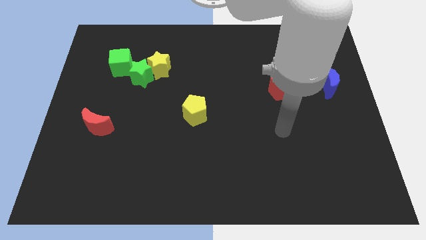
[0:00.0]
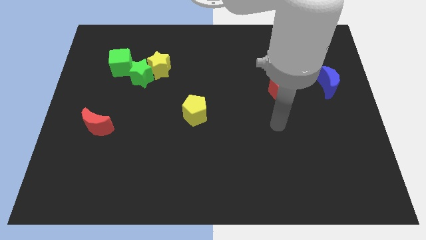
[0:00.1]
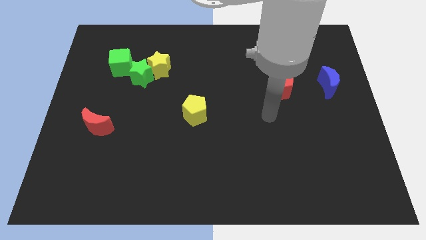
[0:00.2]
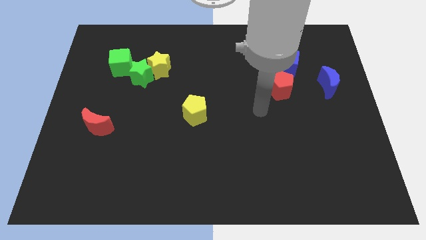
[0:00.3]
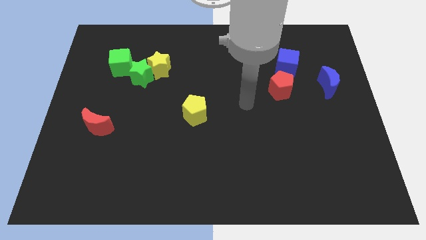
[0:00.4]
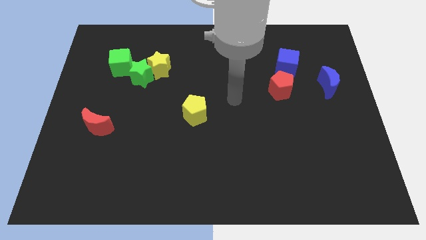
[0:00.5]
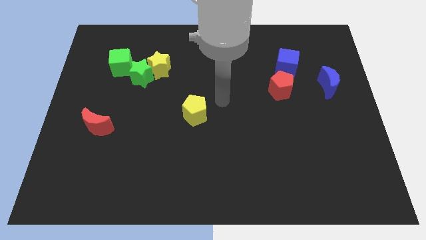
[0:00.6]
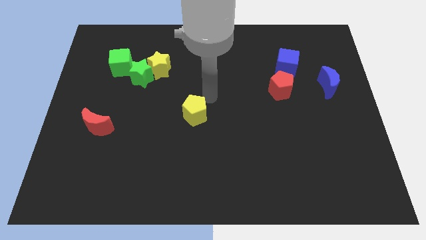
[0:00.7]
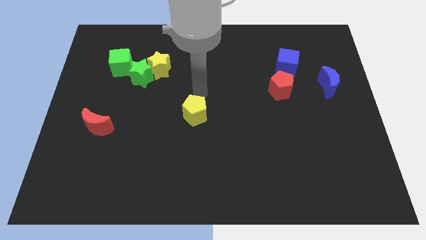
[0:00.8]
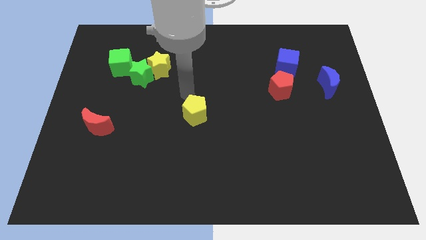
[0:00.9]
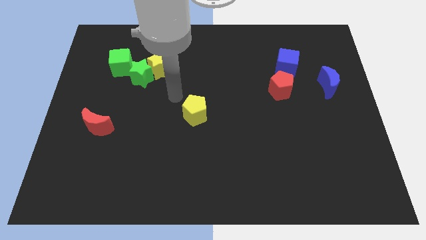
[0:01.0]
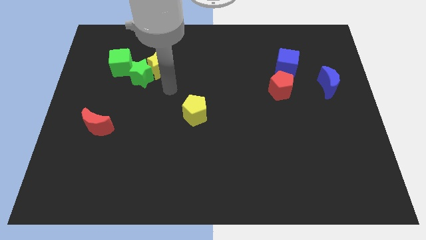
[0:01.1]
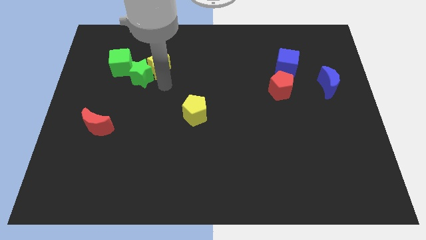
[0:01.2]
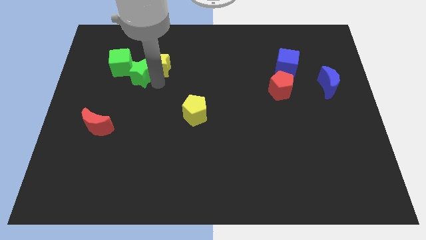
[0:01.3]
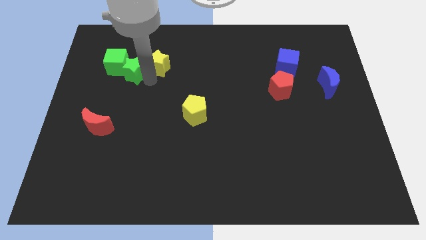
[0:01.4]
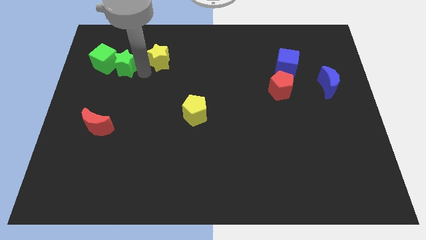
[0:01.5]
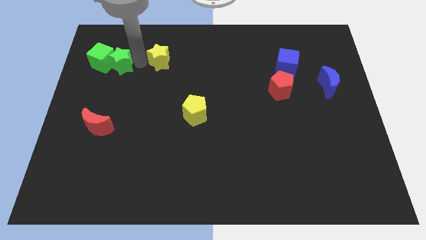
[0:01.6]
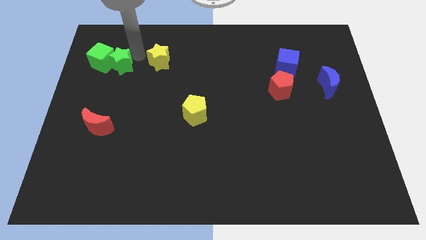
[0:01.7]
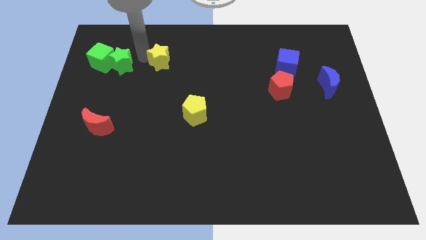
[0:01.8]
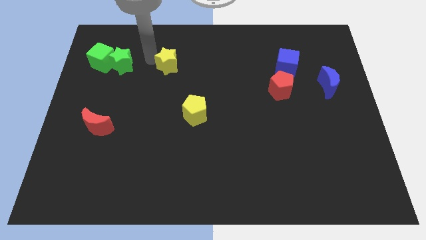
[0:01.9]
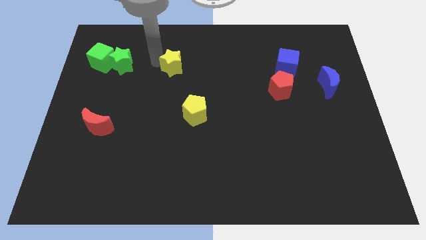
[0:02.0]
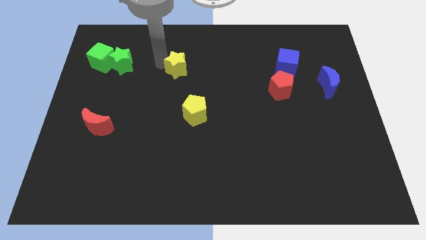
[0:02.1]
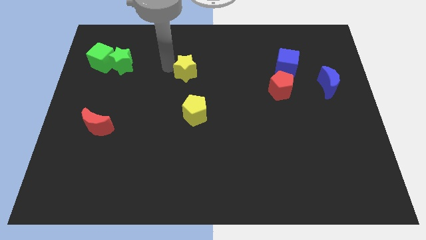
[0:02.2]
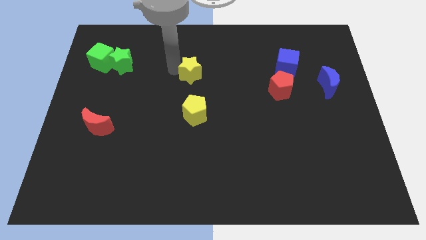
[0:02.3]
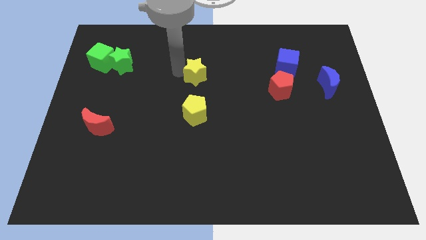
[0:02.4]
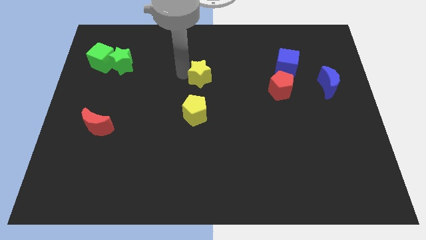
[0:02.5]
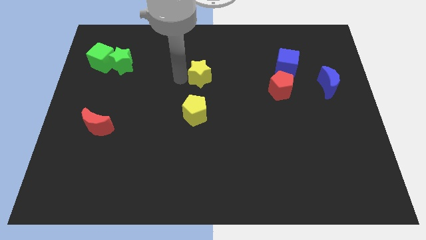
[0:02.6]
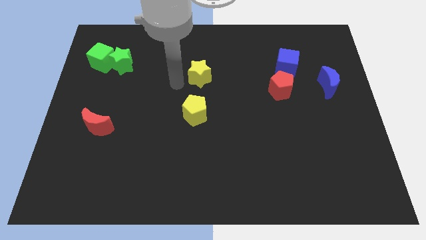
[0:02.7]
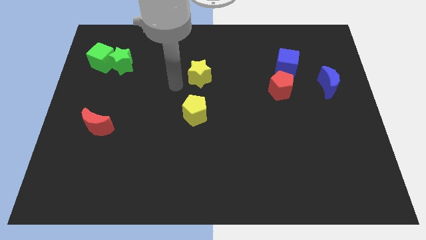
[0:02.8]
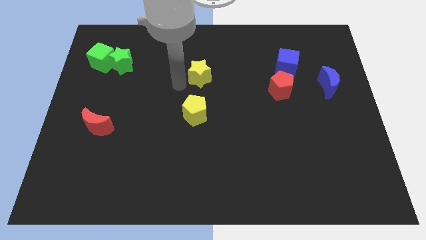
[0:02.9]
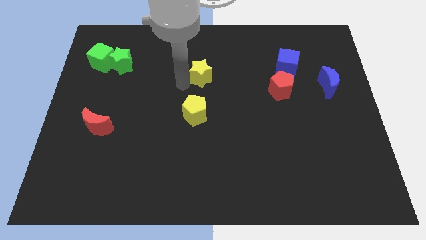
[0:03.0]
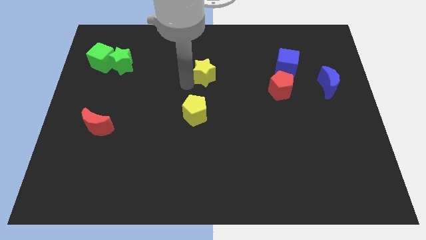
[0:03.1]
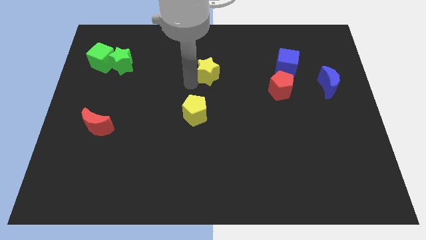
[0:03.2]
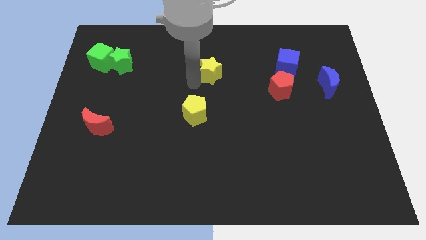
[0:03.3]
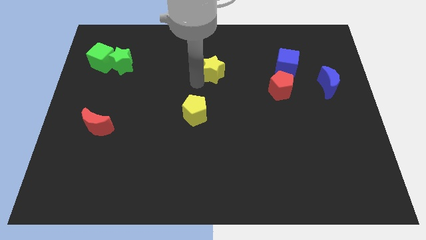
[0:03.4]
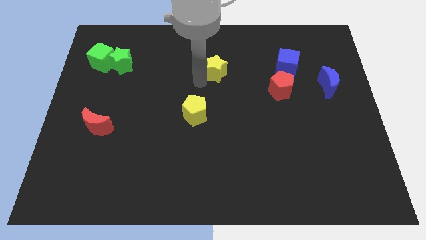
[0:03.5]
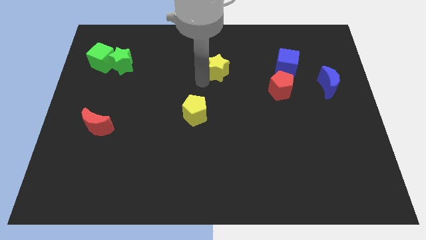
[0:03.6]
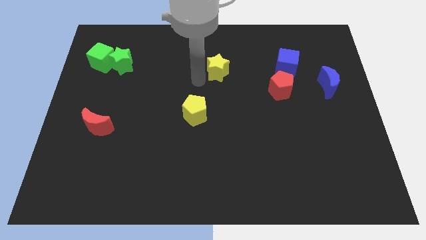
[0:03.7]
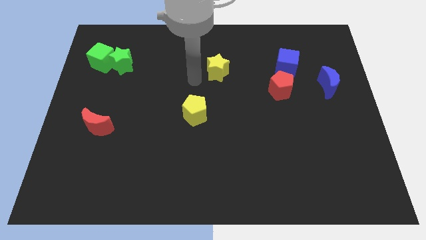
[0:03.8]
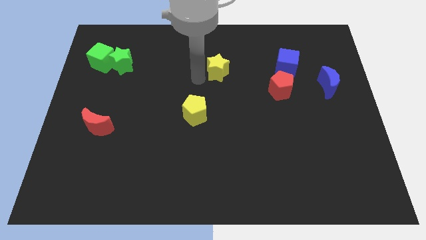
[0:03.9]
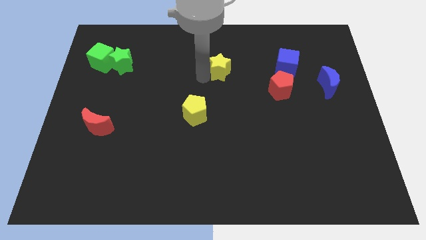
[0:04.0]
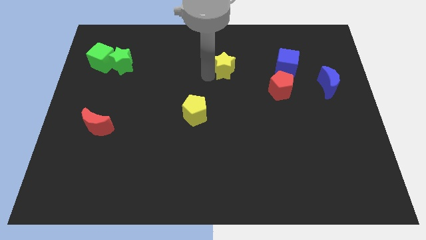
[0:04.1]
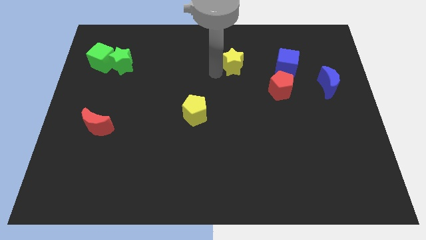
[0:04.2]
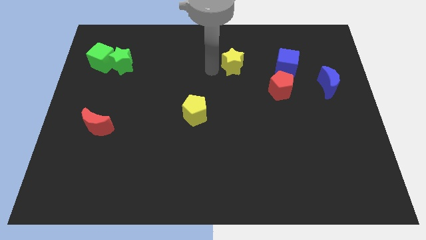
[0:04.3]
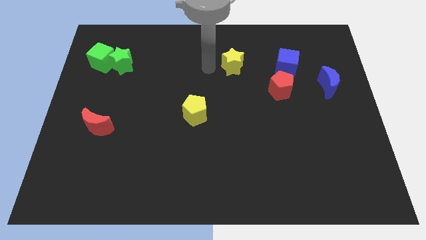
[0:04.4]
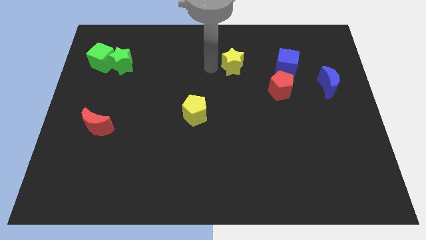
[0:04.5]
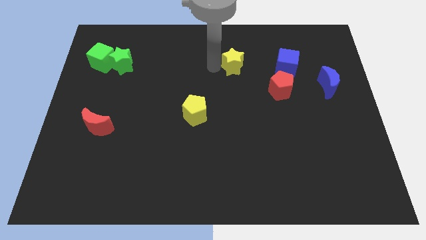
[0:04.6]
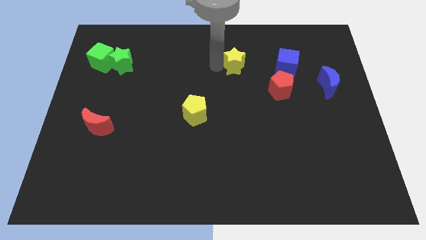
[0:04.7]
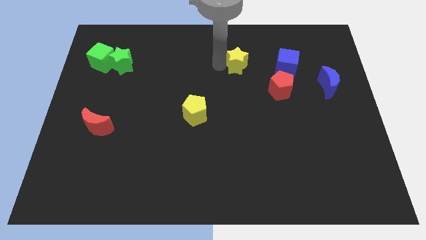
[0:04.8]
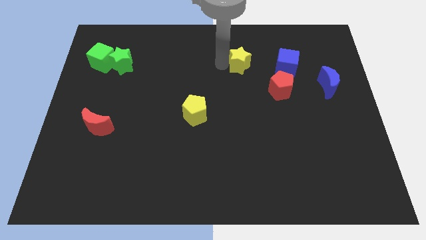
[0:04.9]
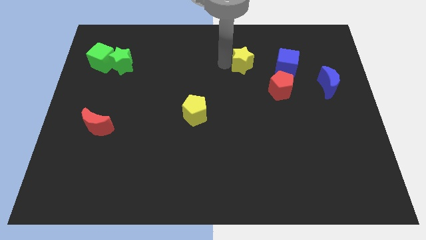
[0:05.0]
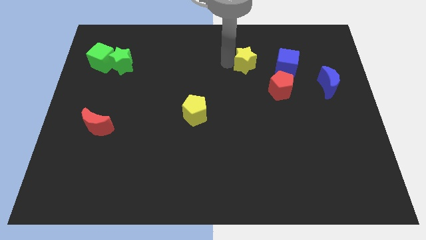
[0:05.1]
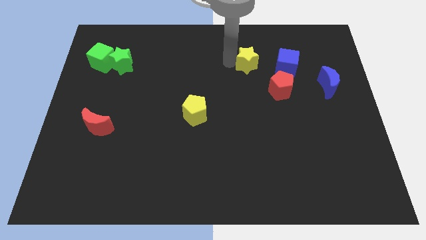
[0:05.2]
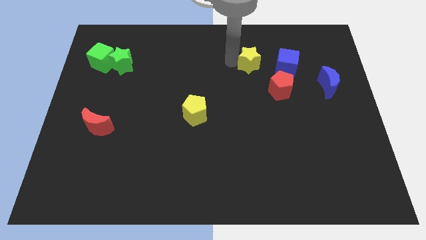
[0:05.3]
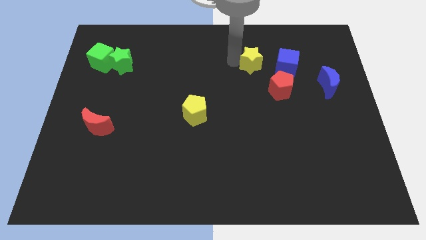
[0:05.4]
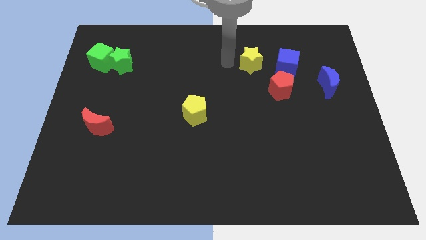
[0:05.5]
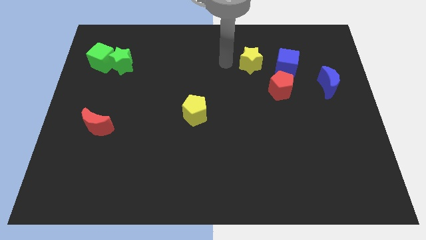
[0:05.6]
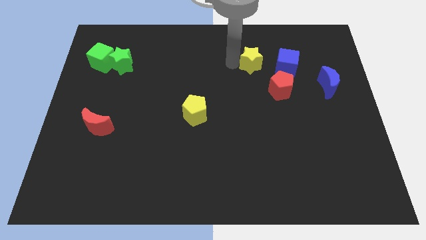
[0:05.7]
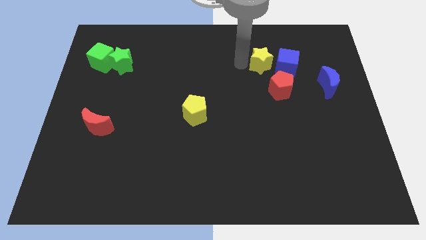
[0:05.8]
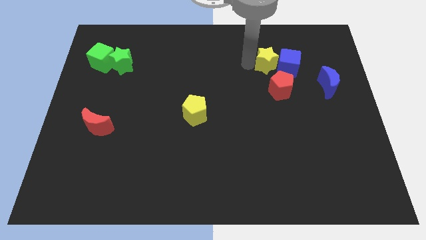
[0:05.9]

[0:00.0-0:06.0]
move the yellow star next to the blue cube

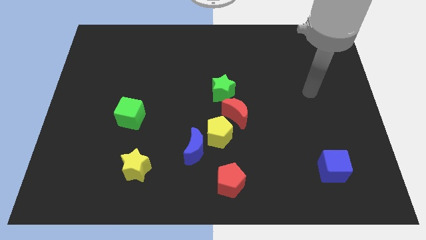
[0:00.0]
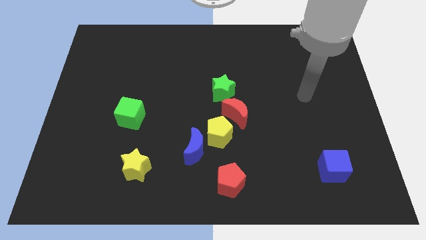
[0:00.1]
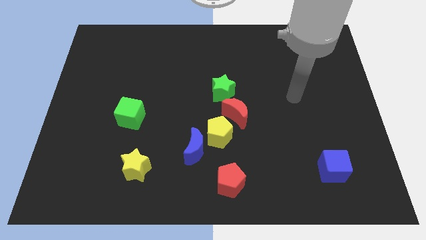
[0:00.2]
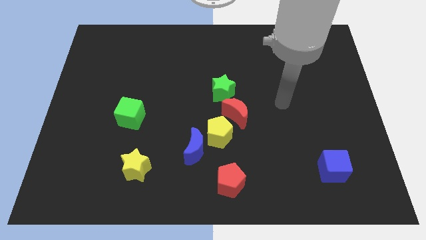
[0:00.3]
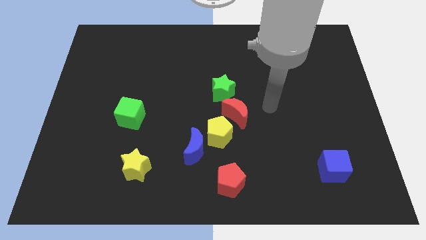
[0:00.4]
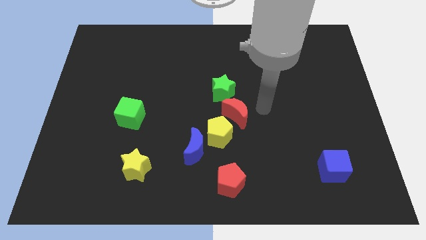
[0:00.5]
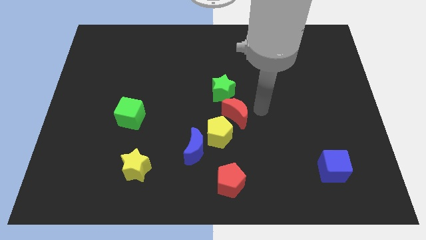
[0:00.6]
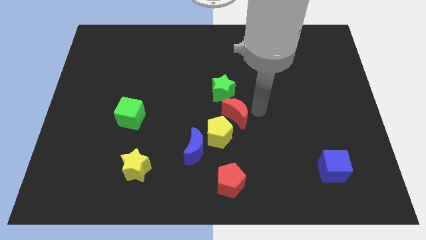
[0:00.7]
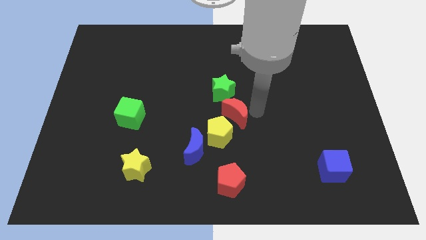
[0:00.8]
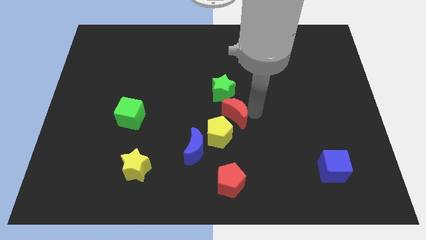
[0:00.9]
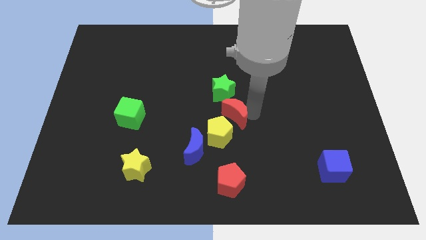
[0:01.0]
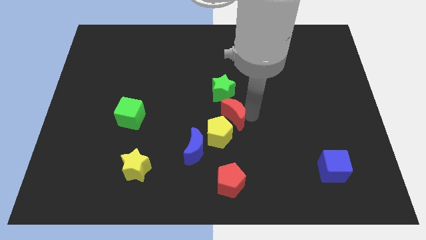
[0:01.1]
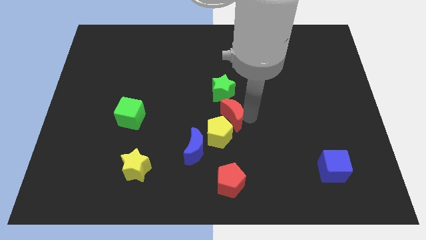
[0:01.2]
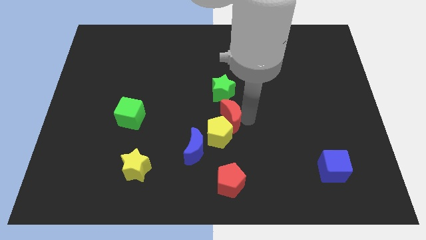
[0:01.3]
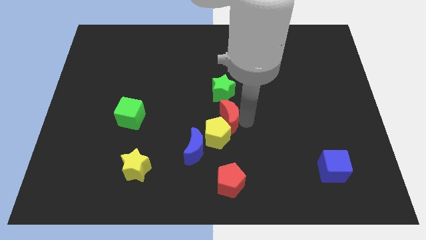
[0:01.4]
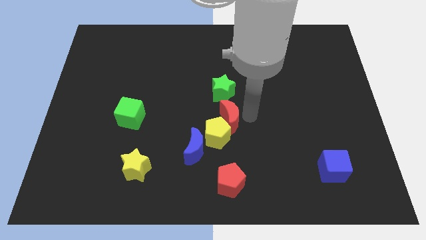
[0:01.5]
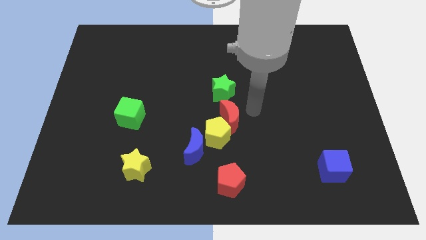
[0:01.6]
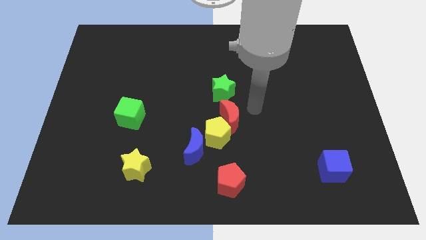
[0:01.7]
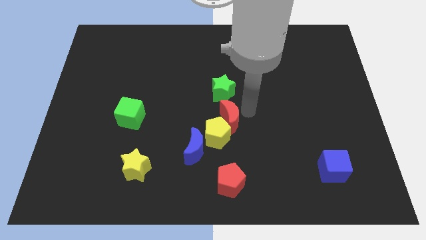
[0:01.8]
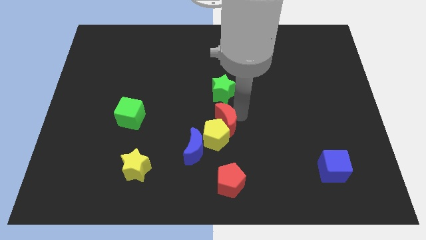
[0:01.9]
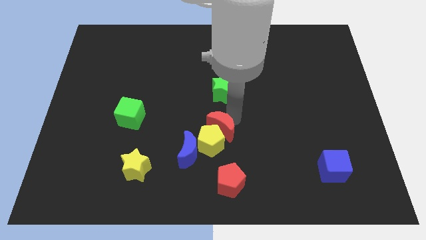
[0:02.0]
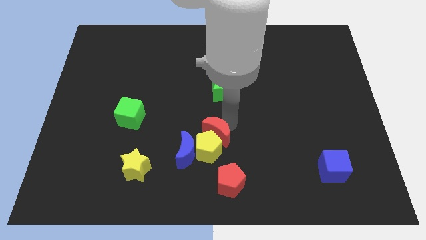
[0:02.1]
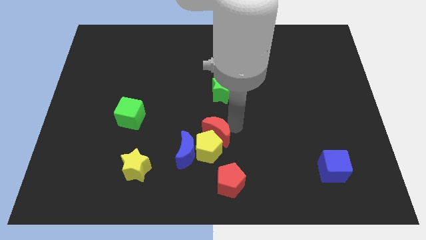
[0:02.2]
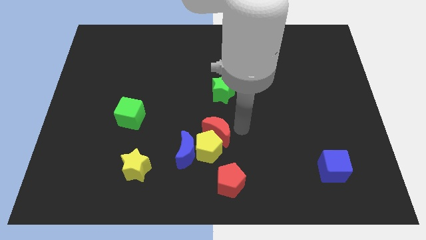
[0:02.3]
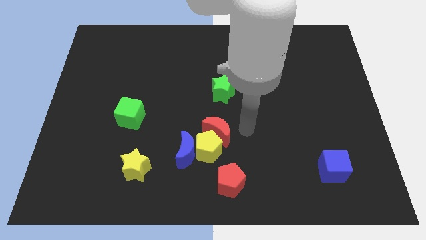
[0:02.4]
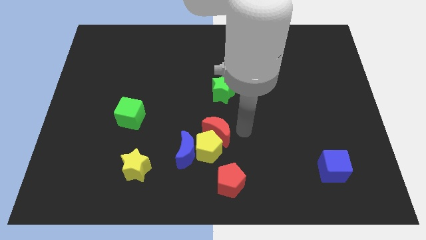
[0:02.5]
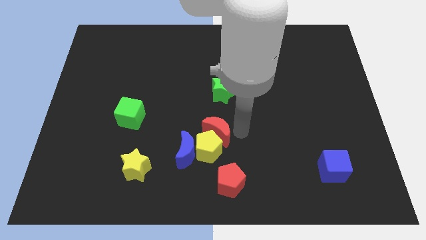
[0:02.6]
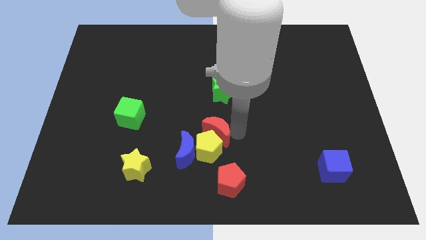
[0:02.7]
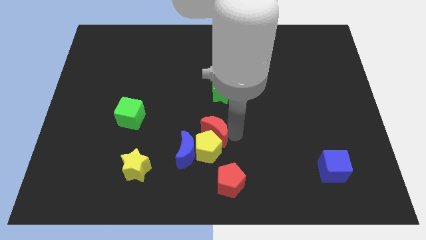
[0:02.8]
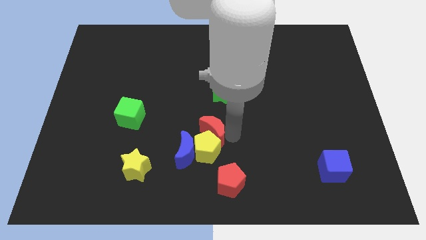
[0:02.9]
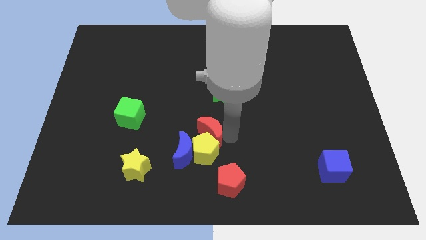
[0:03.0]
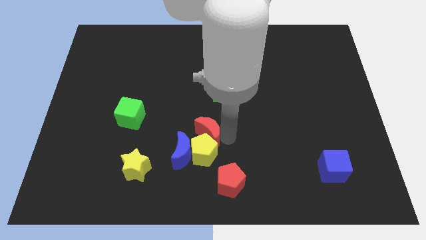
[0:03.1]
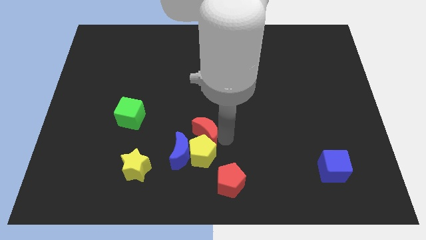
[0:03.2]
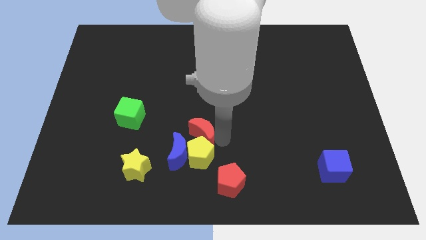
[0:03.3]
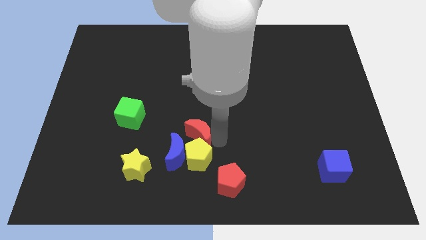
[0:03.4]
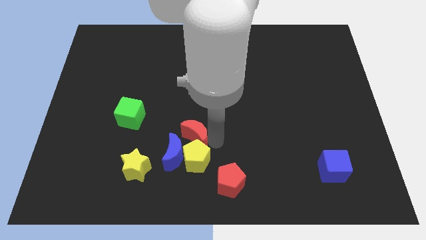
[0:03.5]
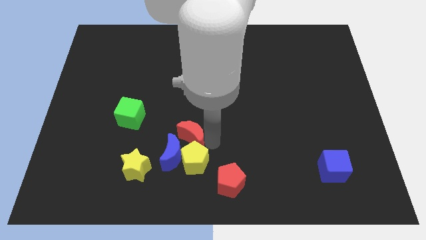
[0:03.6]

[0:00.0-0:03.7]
push the red moon next to the blue moon
